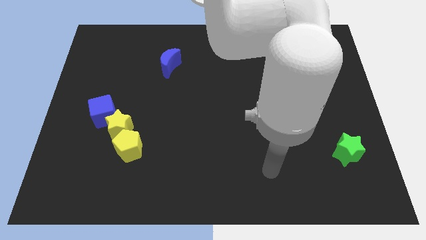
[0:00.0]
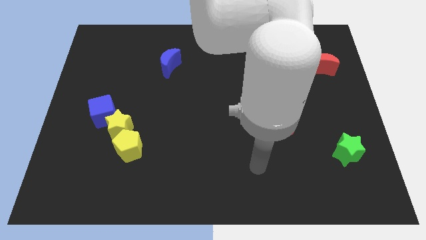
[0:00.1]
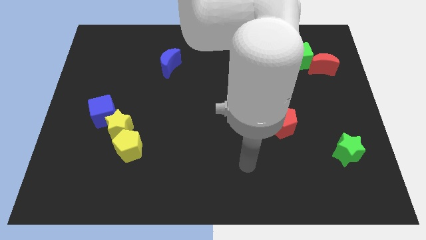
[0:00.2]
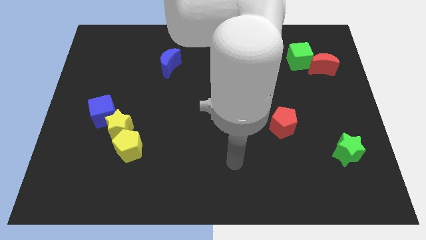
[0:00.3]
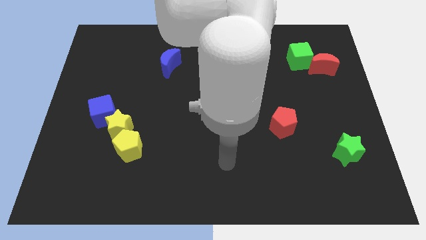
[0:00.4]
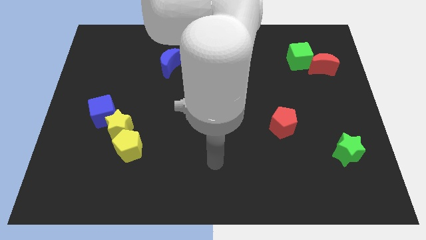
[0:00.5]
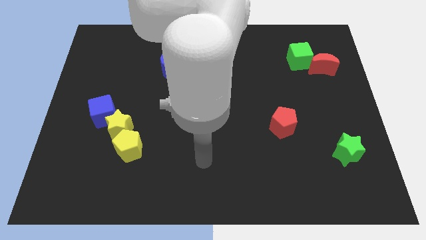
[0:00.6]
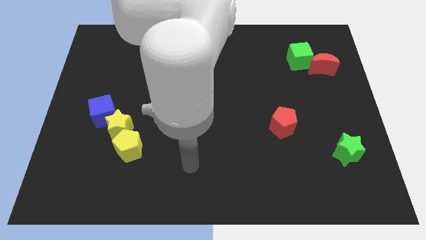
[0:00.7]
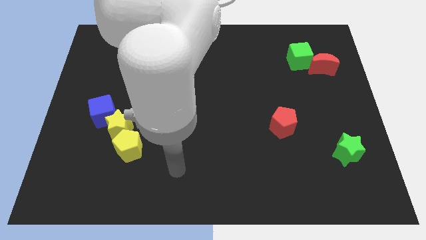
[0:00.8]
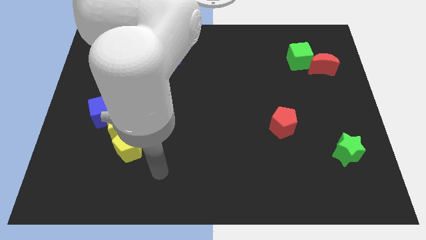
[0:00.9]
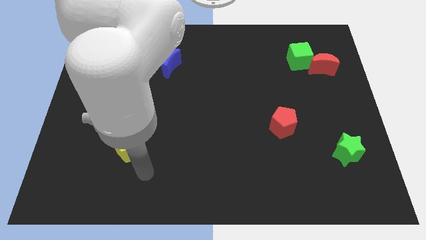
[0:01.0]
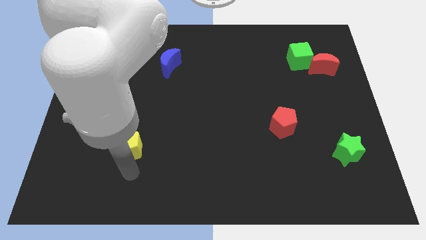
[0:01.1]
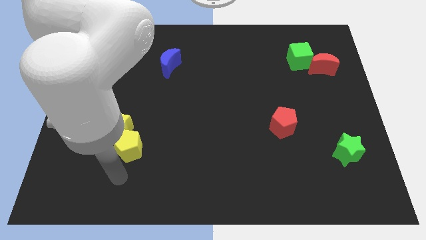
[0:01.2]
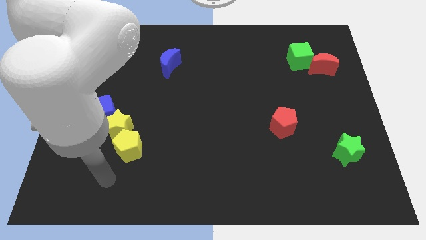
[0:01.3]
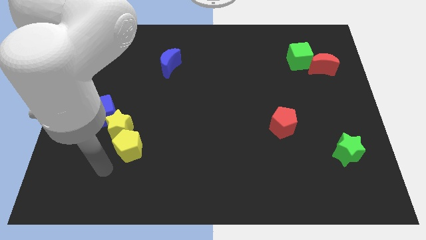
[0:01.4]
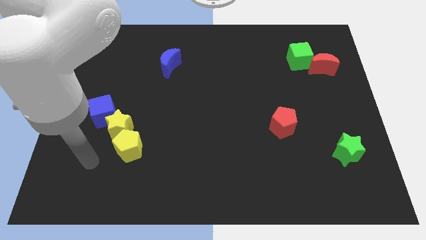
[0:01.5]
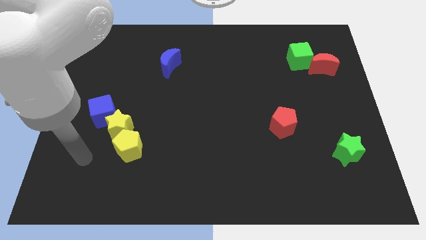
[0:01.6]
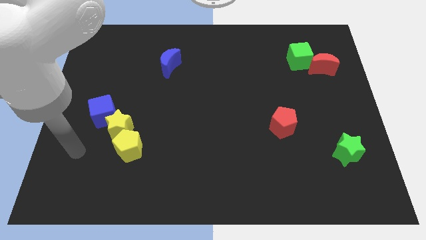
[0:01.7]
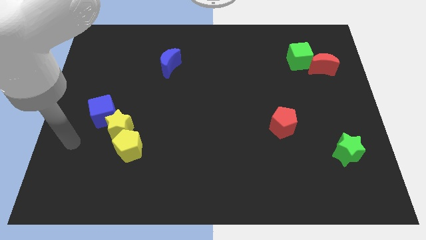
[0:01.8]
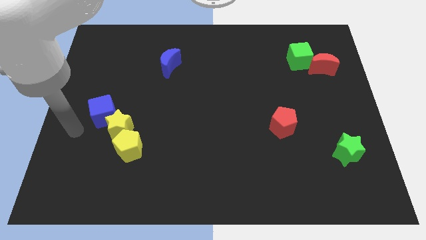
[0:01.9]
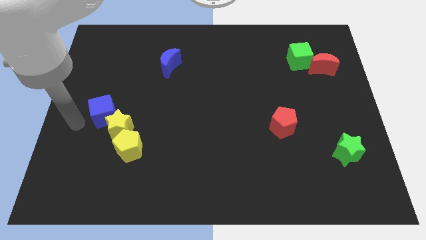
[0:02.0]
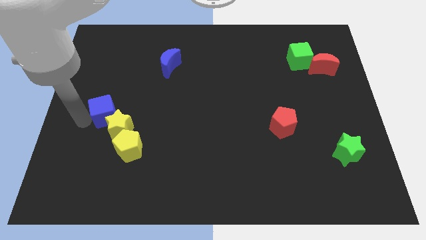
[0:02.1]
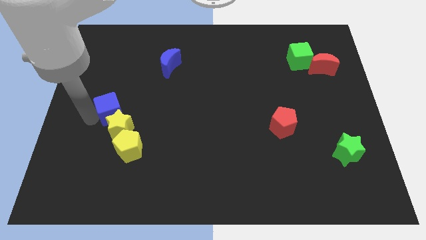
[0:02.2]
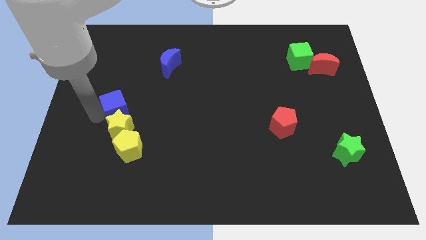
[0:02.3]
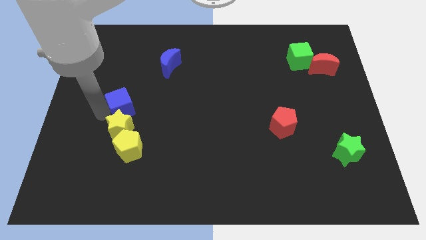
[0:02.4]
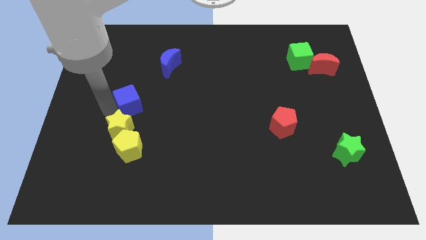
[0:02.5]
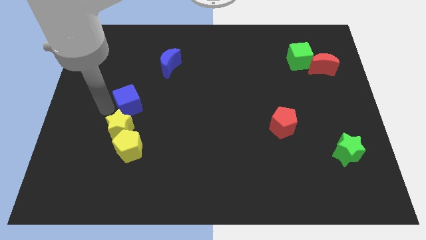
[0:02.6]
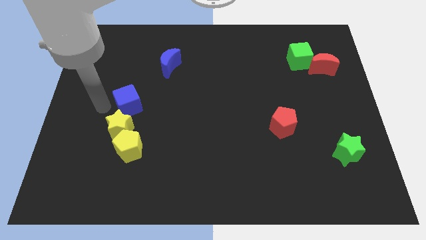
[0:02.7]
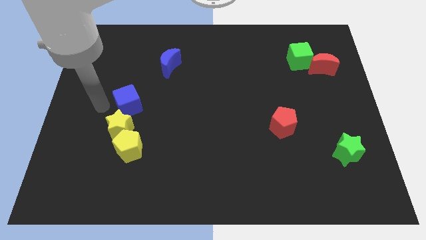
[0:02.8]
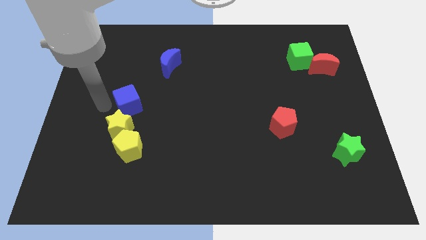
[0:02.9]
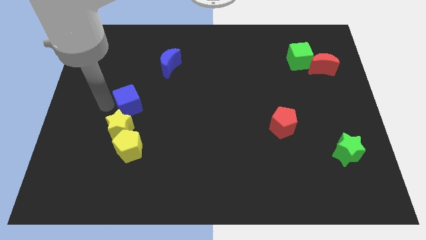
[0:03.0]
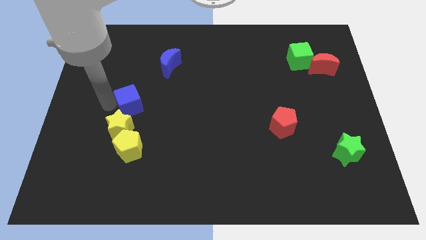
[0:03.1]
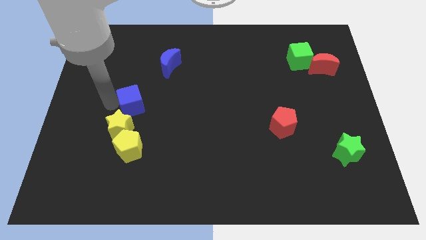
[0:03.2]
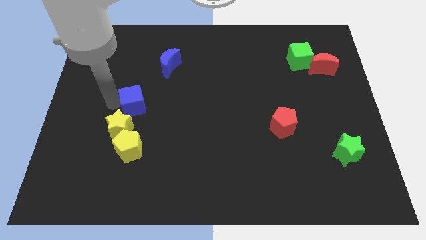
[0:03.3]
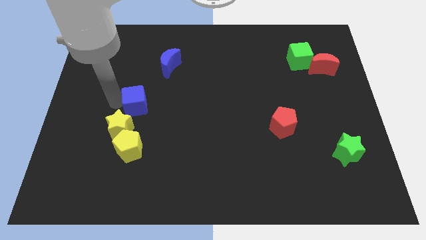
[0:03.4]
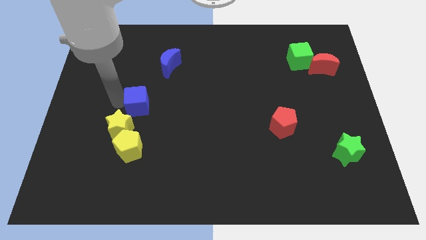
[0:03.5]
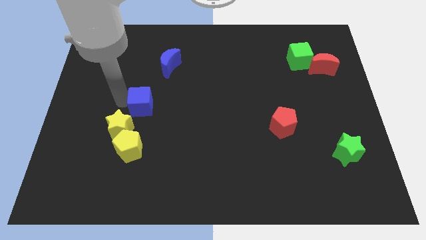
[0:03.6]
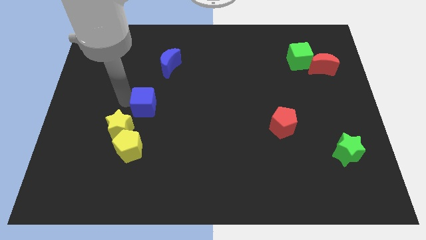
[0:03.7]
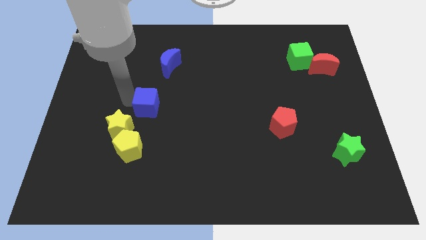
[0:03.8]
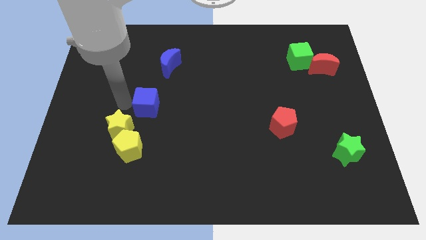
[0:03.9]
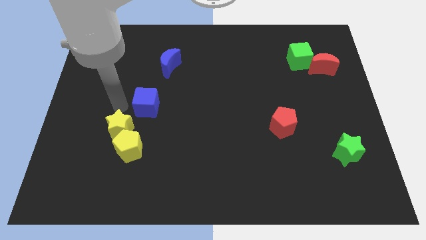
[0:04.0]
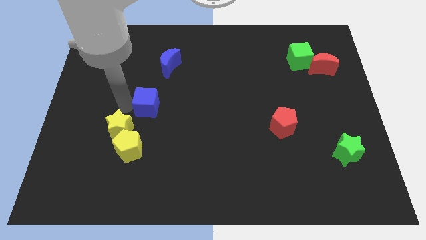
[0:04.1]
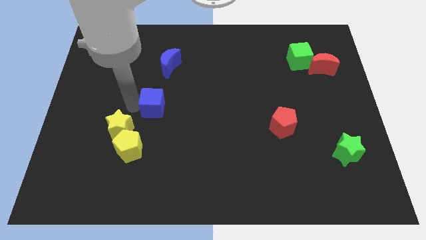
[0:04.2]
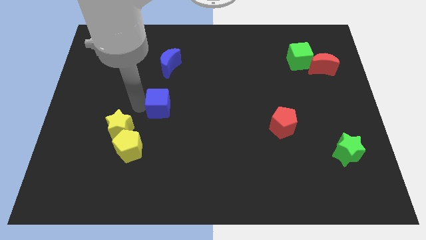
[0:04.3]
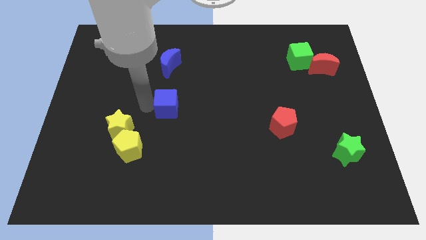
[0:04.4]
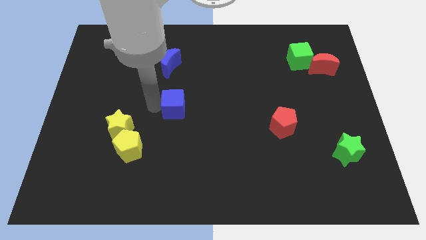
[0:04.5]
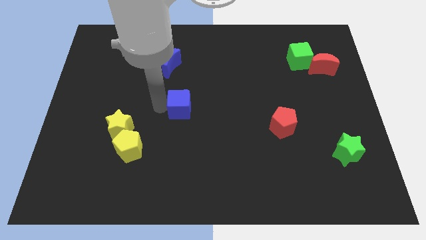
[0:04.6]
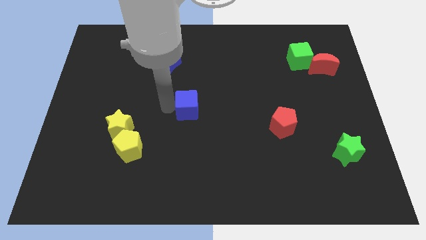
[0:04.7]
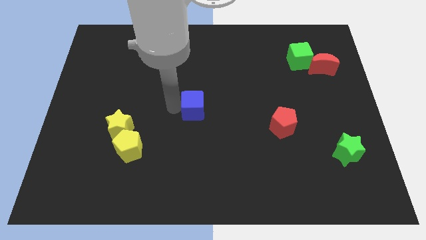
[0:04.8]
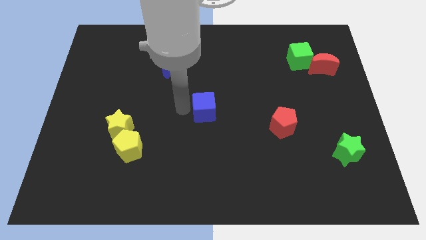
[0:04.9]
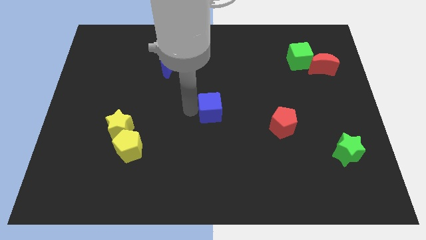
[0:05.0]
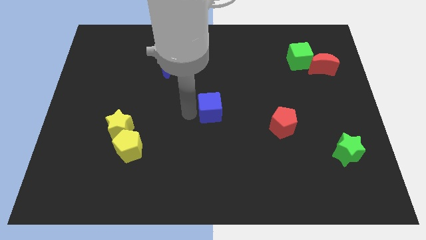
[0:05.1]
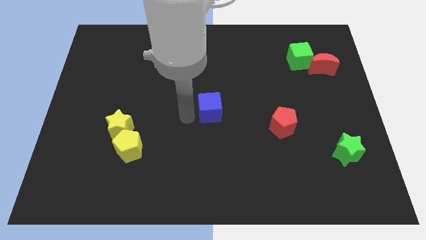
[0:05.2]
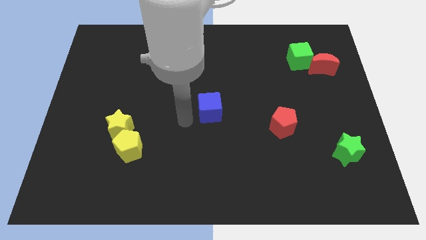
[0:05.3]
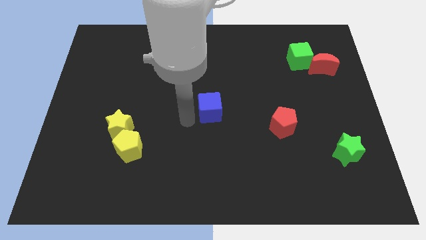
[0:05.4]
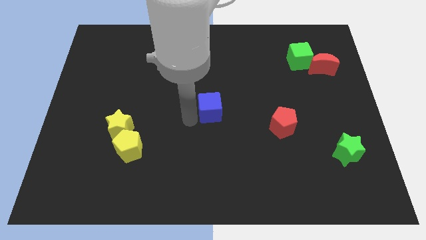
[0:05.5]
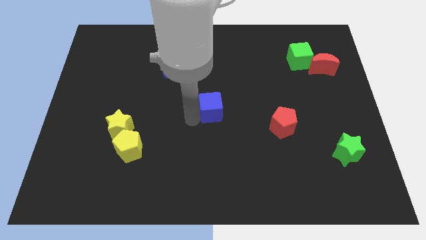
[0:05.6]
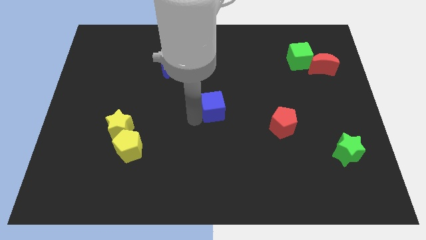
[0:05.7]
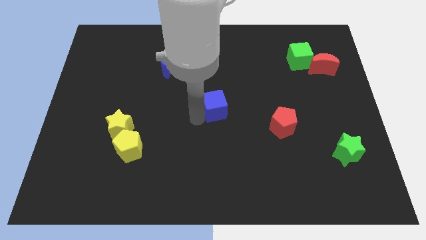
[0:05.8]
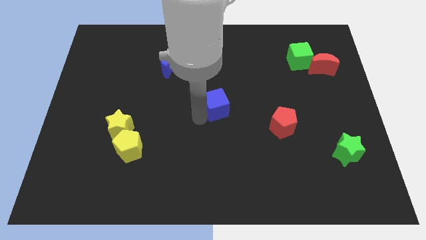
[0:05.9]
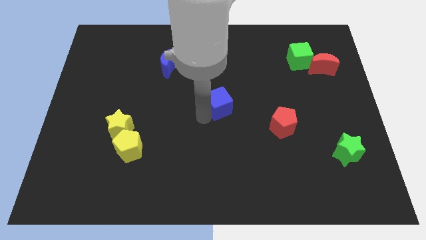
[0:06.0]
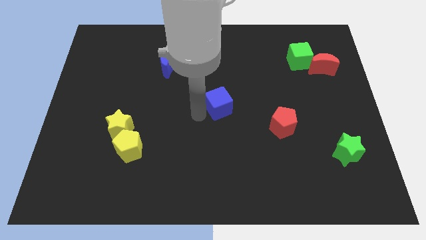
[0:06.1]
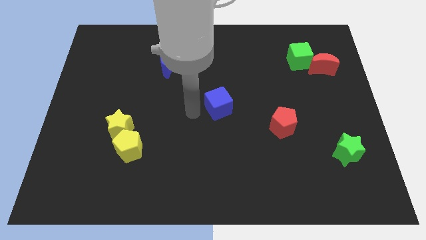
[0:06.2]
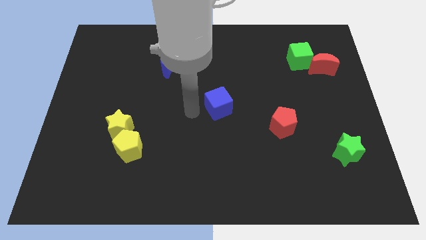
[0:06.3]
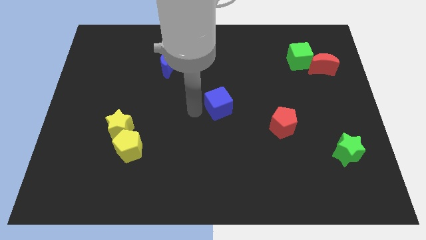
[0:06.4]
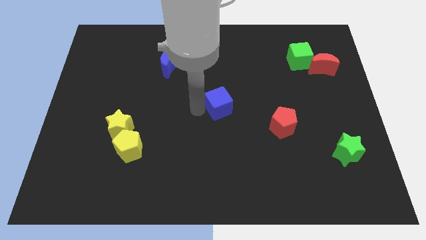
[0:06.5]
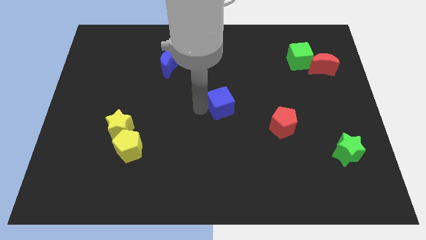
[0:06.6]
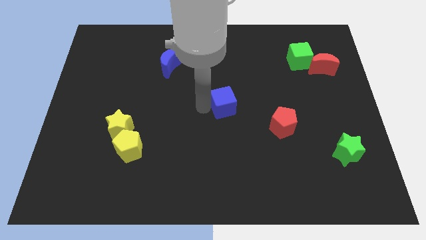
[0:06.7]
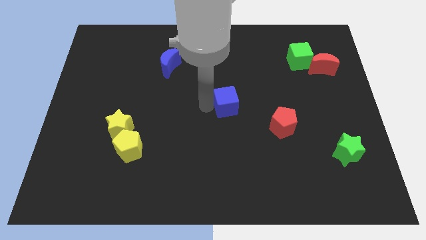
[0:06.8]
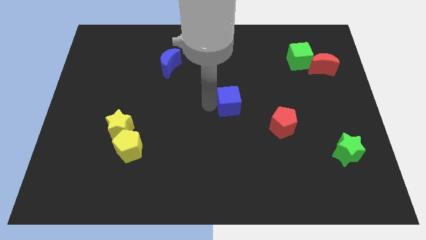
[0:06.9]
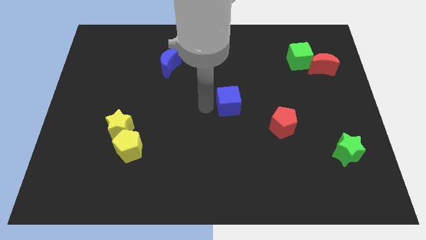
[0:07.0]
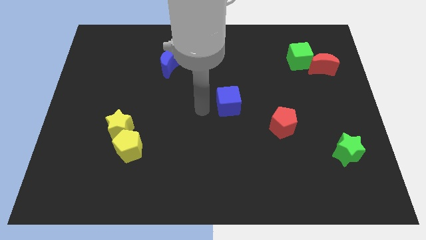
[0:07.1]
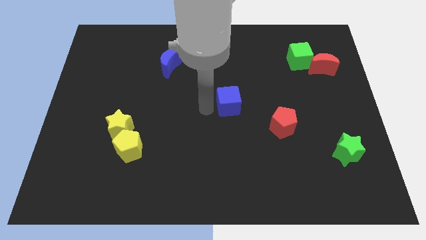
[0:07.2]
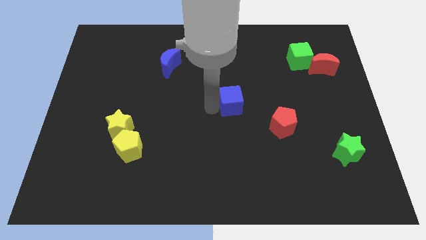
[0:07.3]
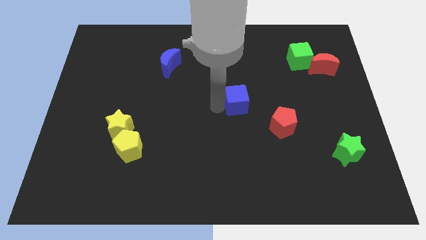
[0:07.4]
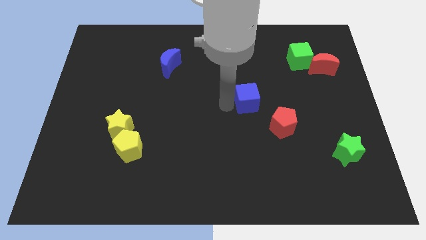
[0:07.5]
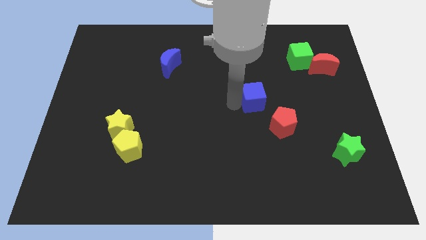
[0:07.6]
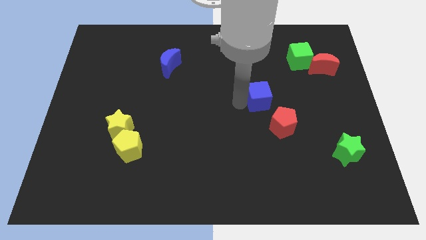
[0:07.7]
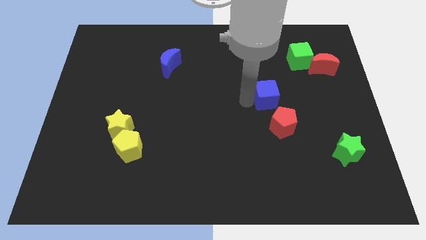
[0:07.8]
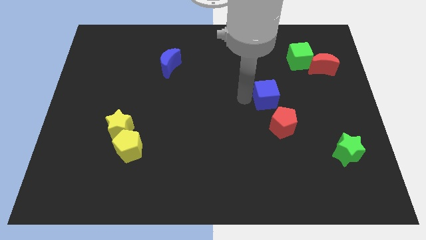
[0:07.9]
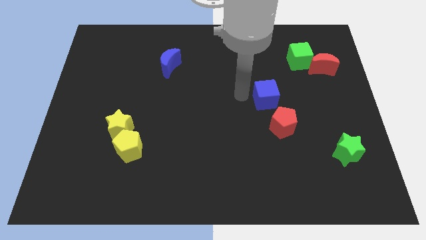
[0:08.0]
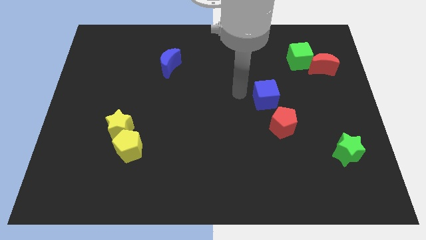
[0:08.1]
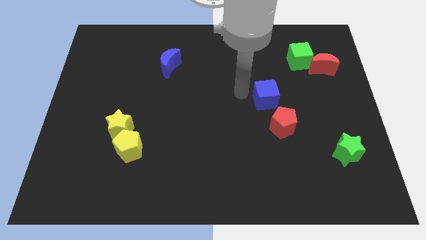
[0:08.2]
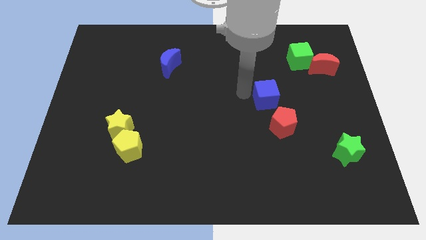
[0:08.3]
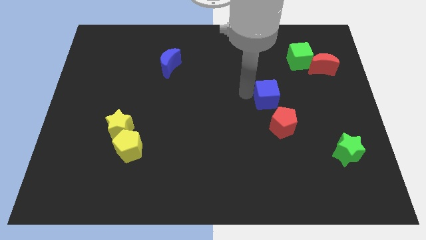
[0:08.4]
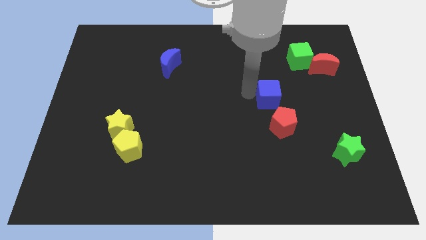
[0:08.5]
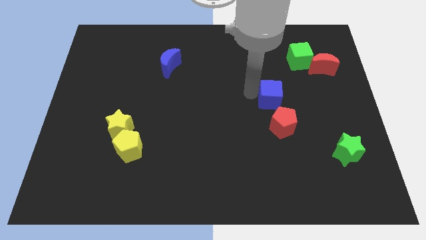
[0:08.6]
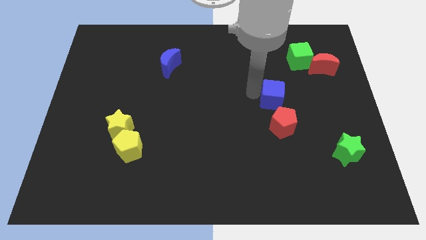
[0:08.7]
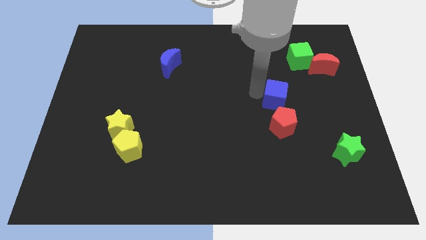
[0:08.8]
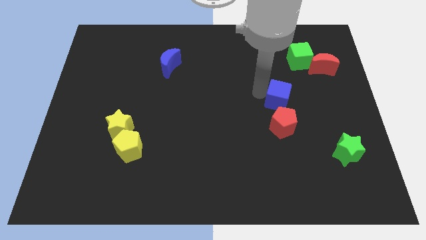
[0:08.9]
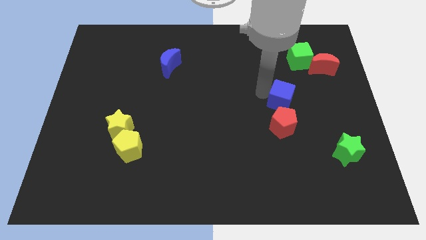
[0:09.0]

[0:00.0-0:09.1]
move the blue cube diagonally up and to the right of the red pentagon
